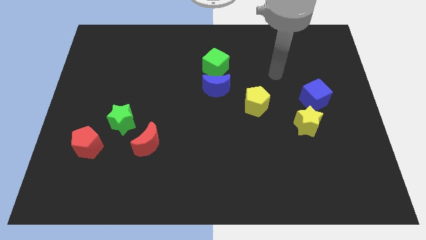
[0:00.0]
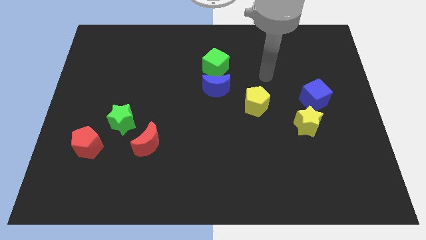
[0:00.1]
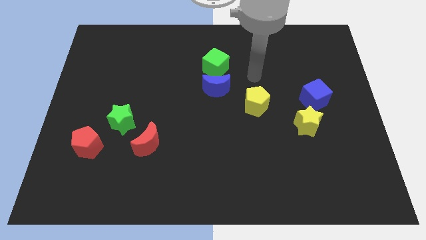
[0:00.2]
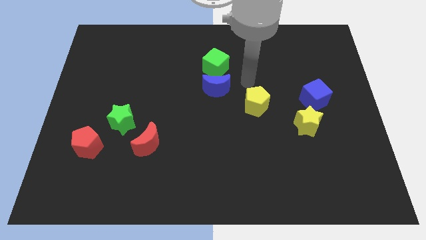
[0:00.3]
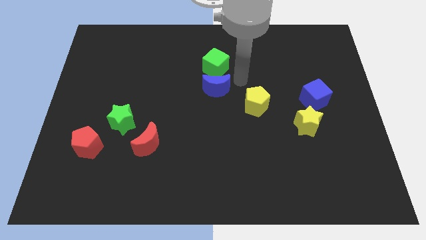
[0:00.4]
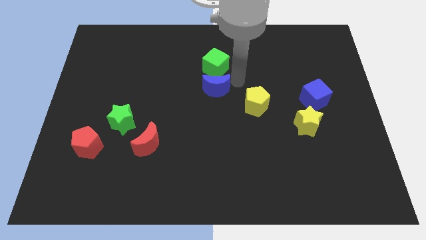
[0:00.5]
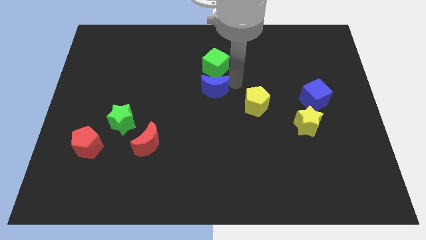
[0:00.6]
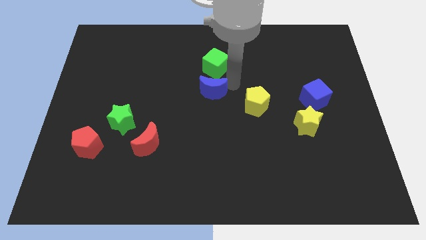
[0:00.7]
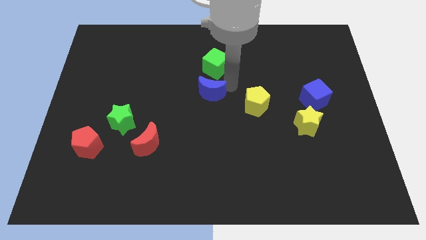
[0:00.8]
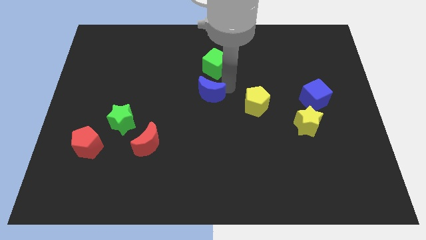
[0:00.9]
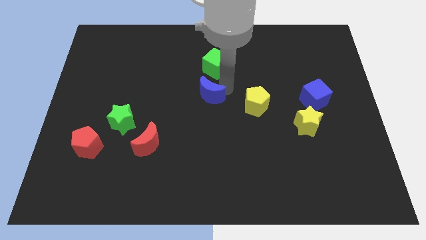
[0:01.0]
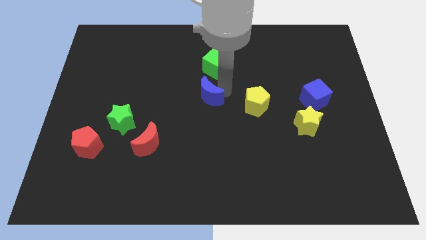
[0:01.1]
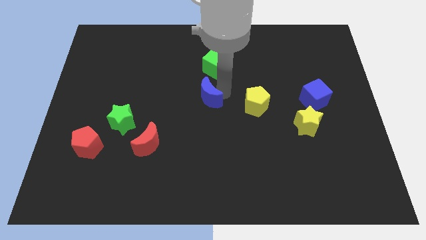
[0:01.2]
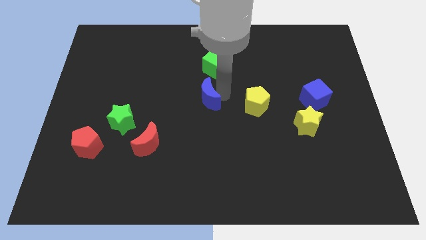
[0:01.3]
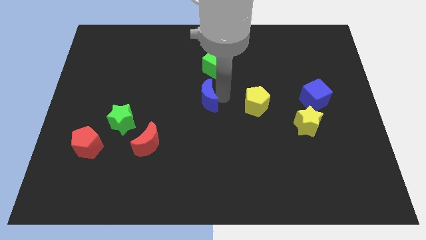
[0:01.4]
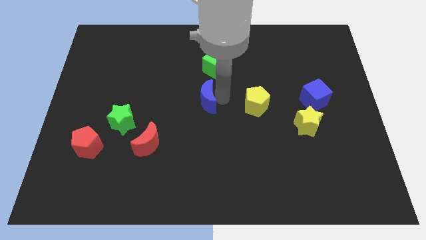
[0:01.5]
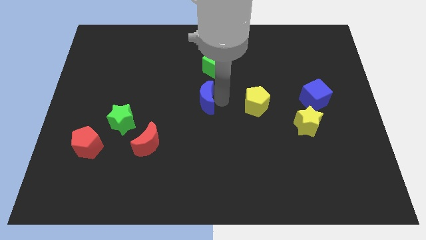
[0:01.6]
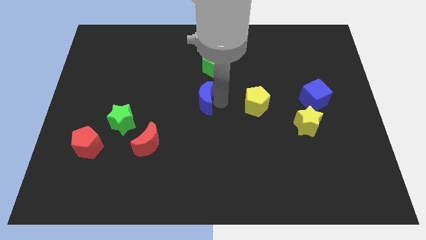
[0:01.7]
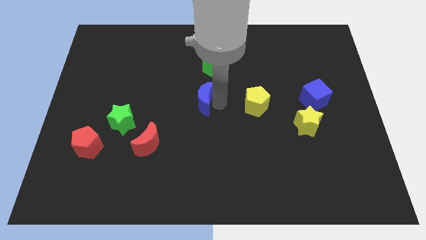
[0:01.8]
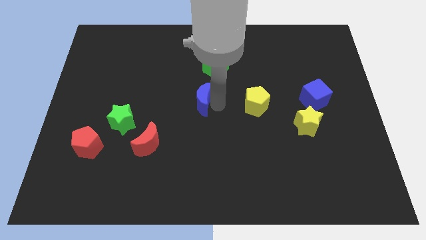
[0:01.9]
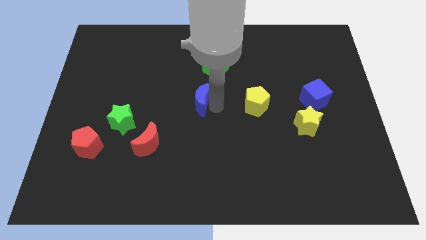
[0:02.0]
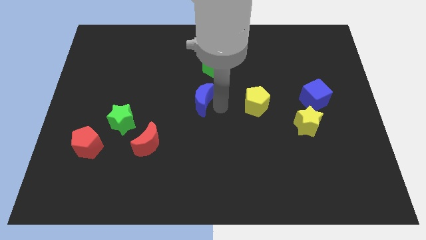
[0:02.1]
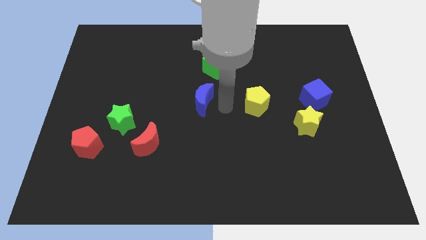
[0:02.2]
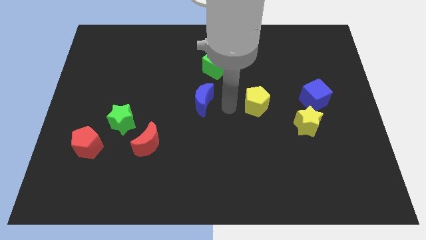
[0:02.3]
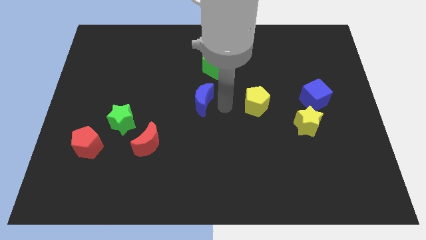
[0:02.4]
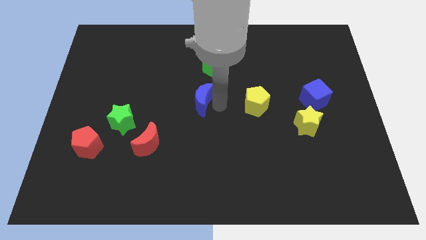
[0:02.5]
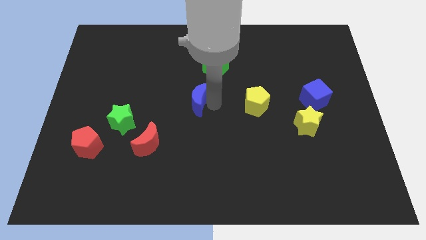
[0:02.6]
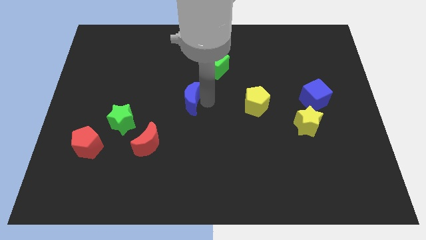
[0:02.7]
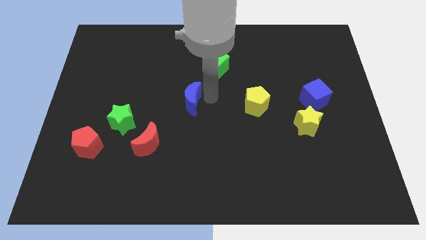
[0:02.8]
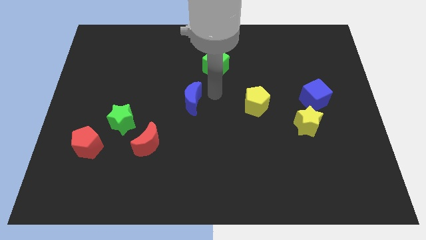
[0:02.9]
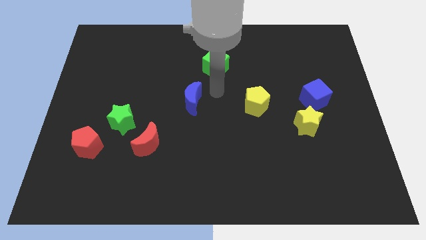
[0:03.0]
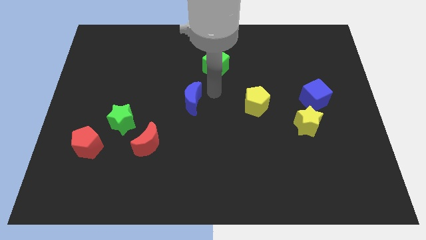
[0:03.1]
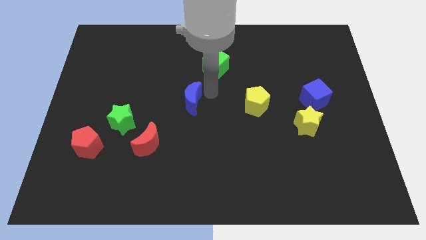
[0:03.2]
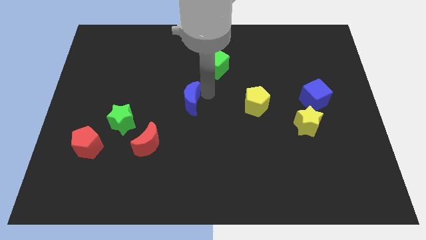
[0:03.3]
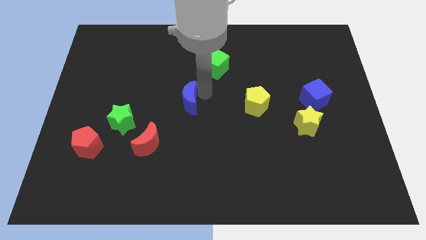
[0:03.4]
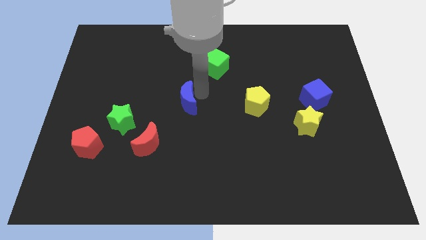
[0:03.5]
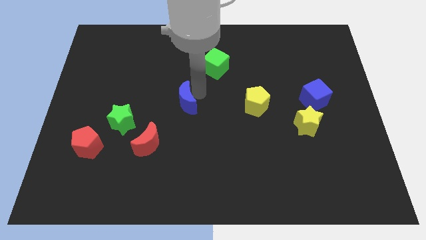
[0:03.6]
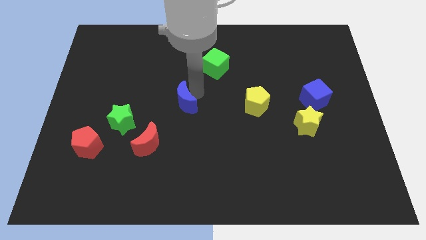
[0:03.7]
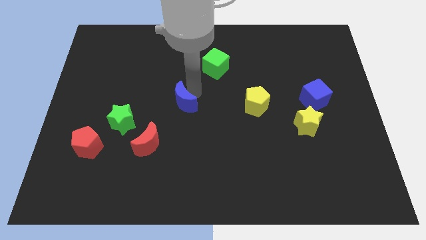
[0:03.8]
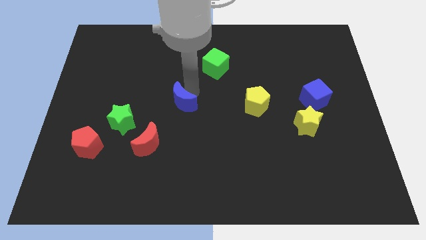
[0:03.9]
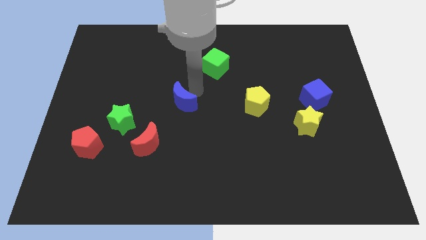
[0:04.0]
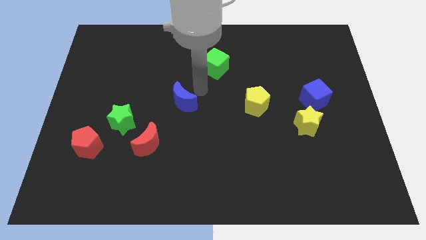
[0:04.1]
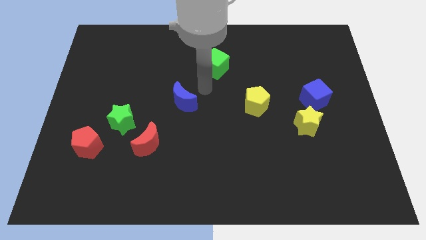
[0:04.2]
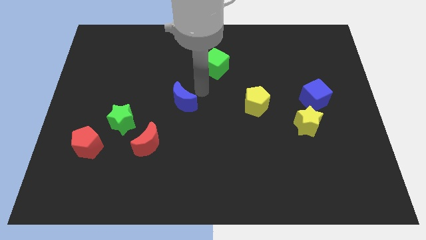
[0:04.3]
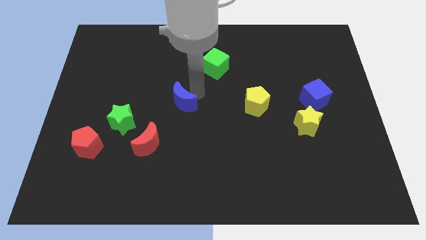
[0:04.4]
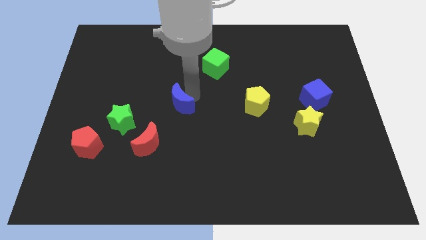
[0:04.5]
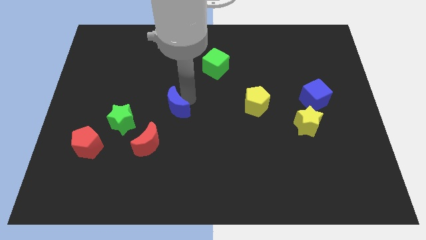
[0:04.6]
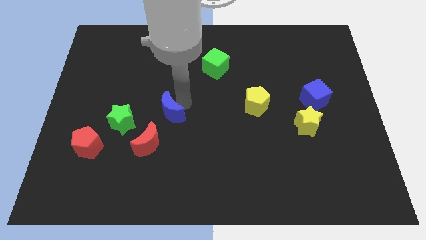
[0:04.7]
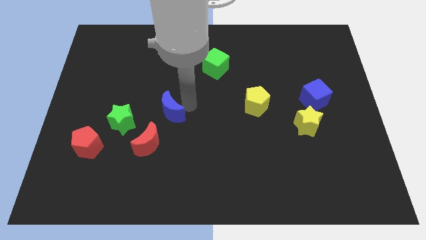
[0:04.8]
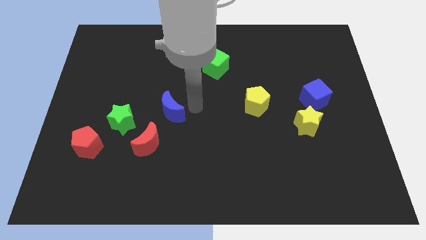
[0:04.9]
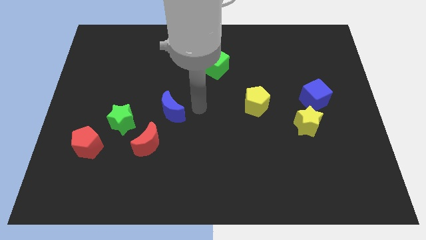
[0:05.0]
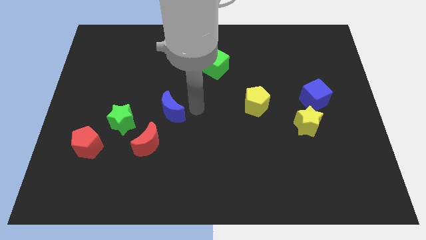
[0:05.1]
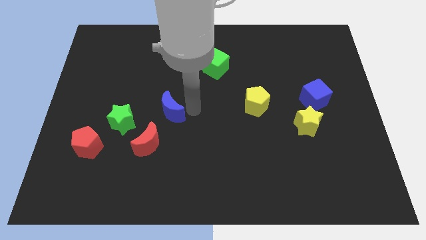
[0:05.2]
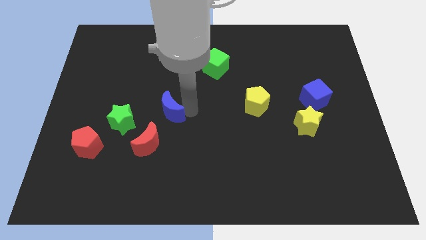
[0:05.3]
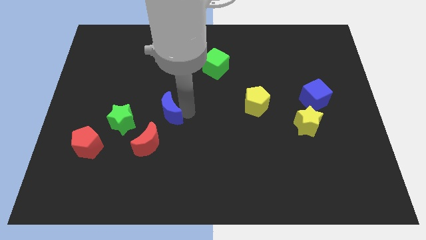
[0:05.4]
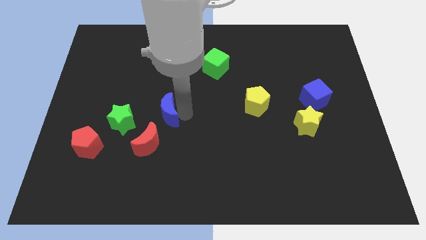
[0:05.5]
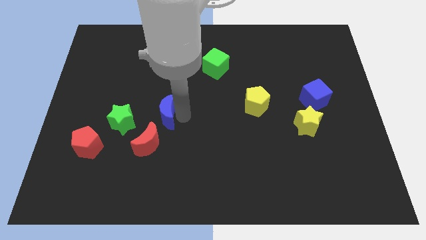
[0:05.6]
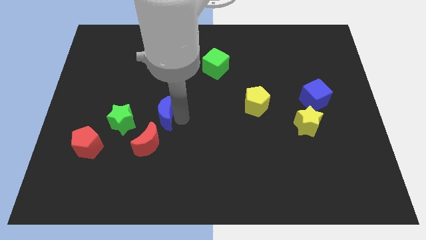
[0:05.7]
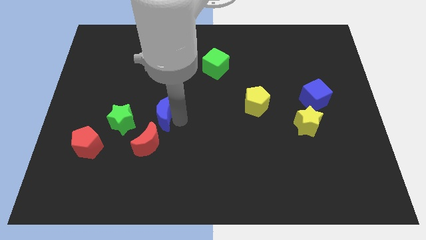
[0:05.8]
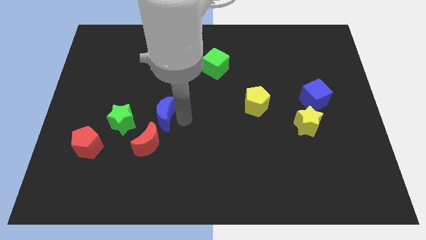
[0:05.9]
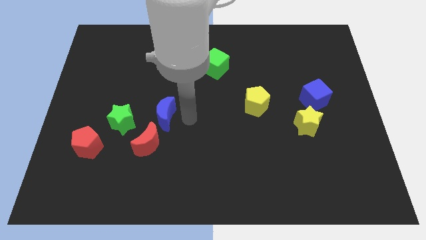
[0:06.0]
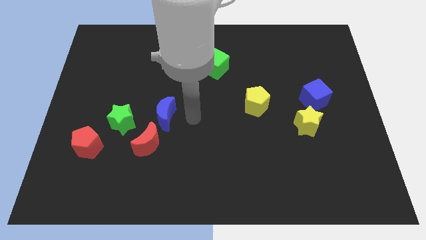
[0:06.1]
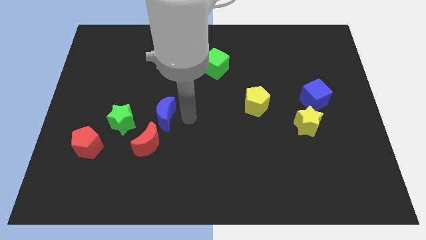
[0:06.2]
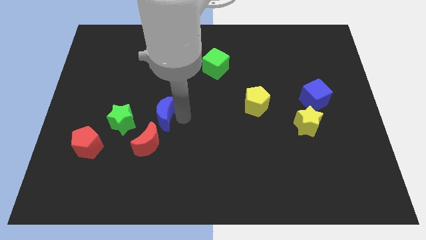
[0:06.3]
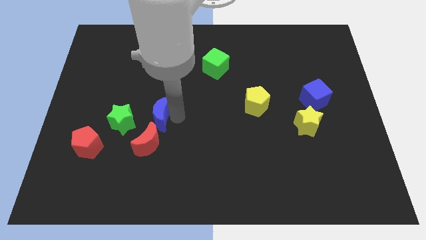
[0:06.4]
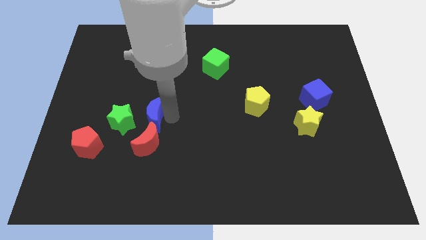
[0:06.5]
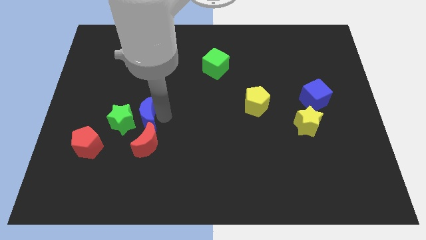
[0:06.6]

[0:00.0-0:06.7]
slide the blue moon towards the green star
